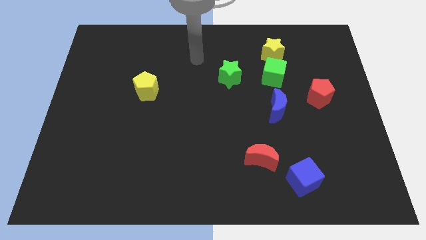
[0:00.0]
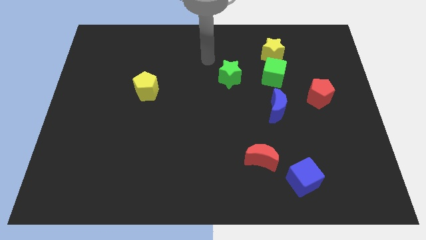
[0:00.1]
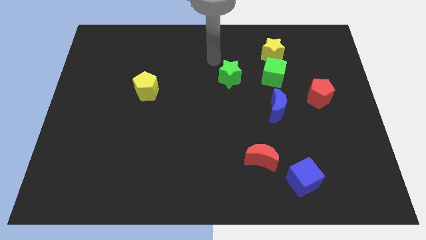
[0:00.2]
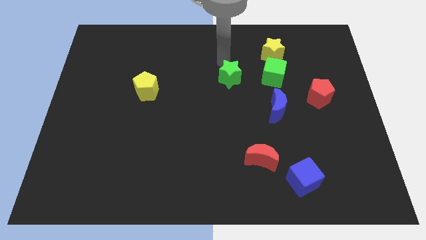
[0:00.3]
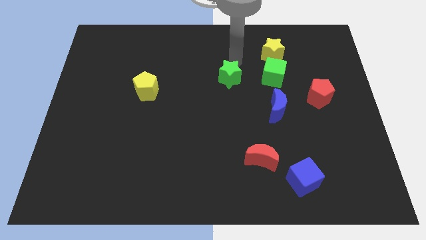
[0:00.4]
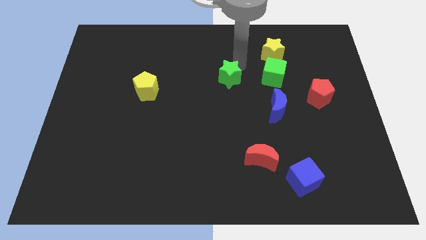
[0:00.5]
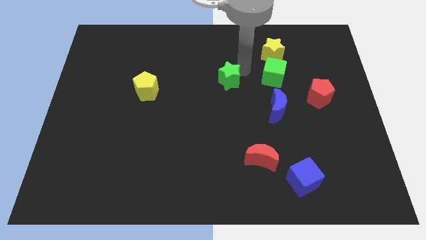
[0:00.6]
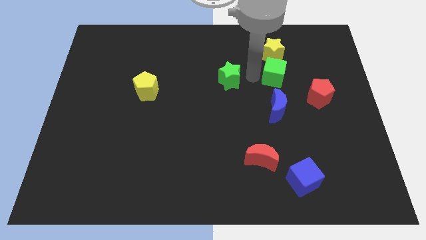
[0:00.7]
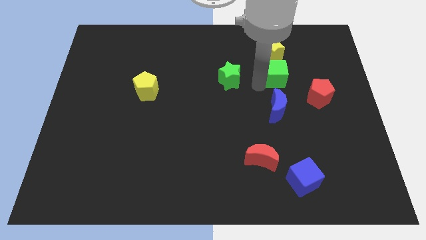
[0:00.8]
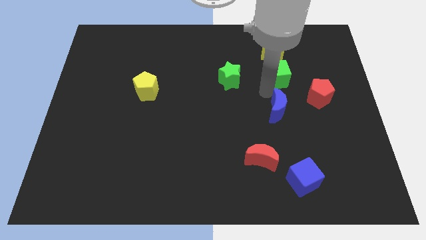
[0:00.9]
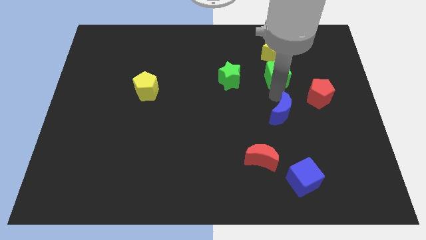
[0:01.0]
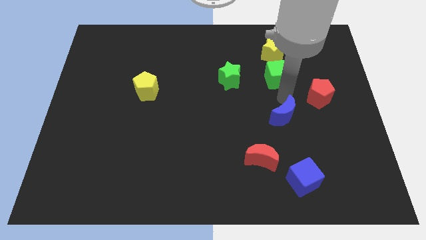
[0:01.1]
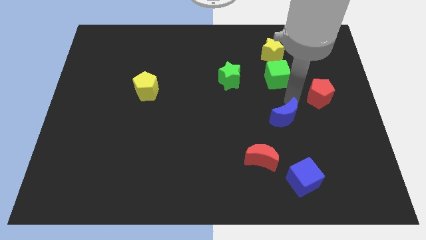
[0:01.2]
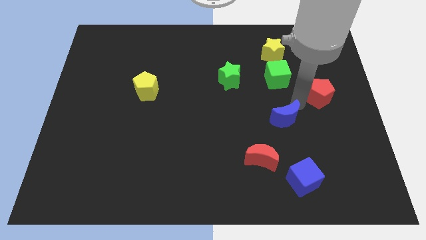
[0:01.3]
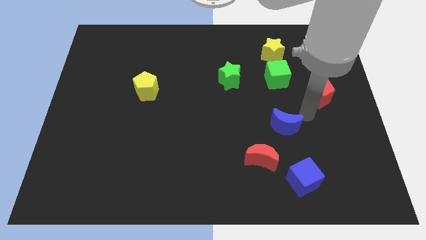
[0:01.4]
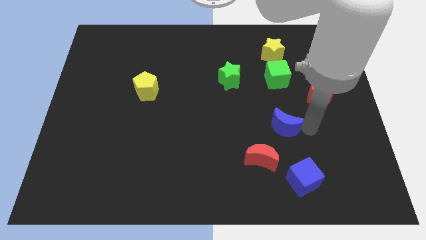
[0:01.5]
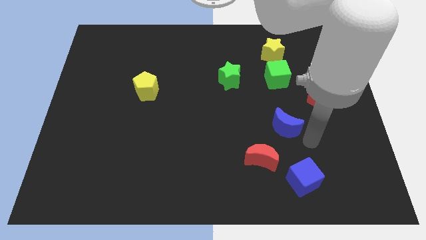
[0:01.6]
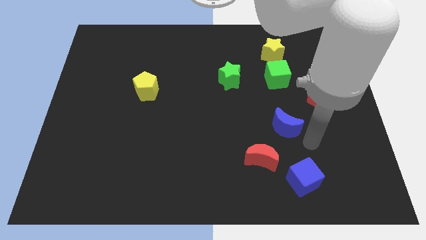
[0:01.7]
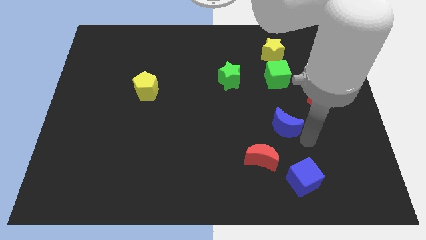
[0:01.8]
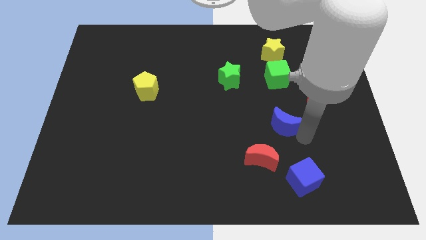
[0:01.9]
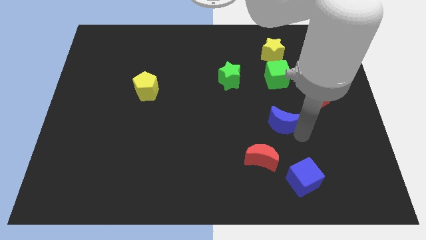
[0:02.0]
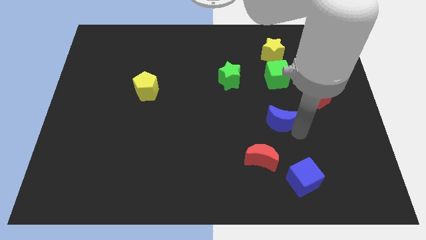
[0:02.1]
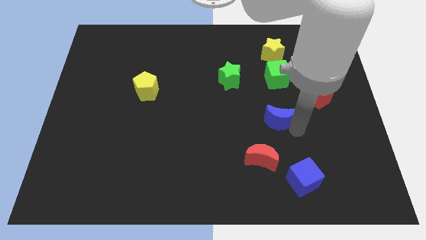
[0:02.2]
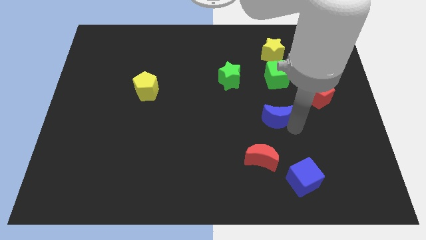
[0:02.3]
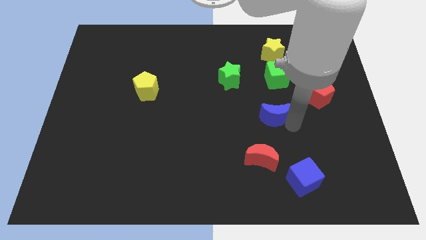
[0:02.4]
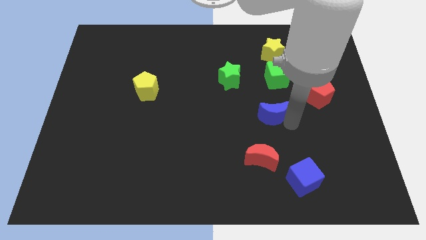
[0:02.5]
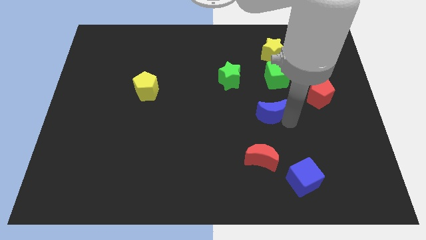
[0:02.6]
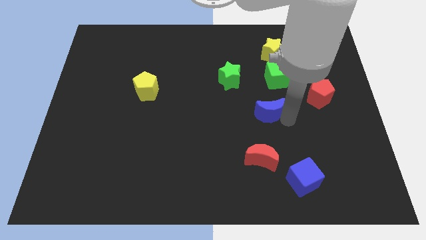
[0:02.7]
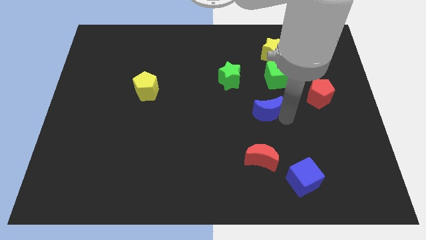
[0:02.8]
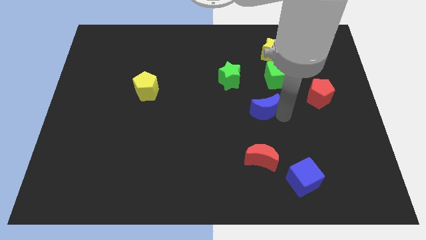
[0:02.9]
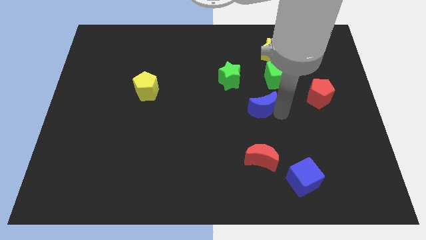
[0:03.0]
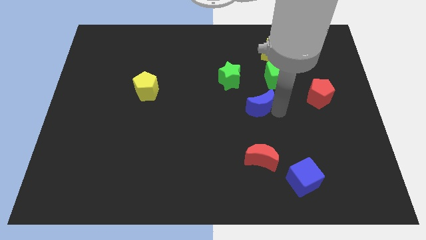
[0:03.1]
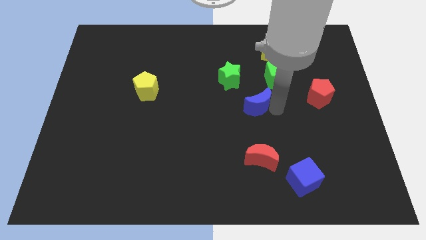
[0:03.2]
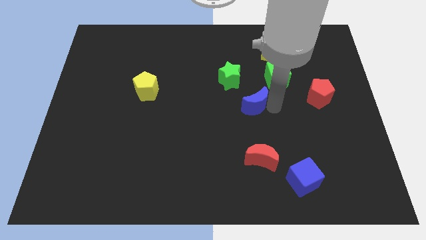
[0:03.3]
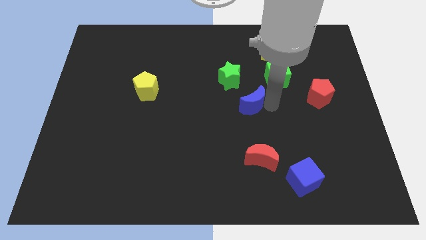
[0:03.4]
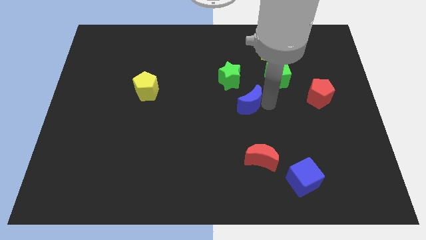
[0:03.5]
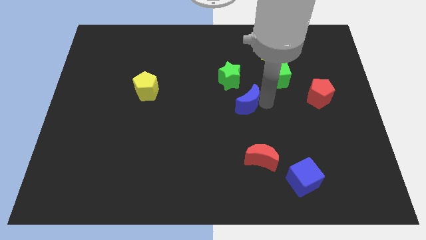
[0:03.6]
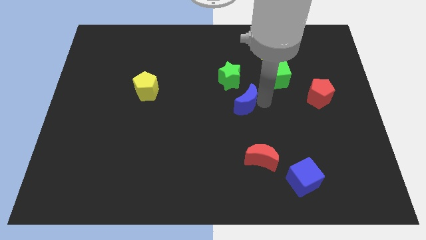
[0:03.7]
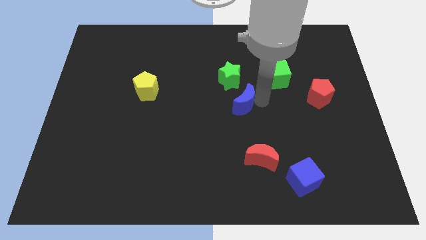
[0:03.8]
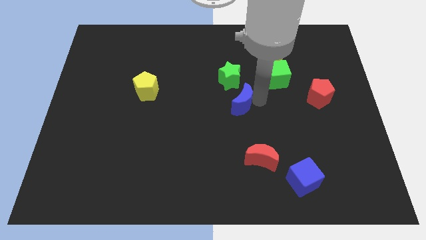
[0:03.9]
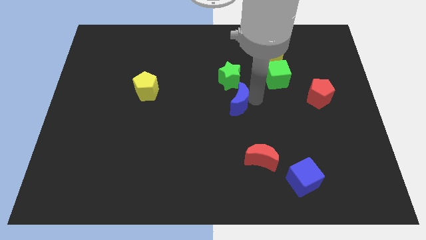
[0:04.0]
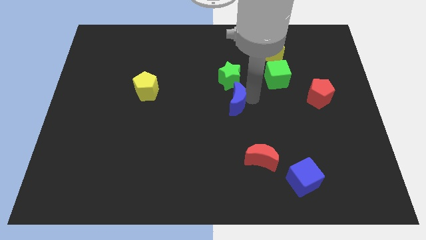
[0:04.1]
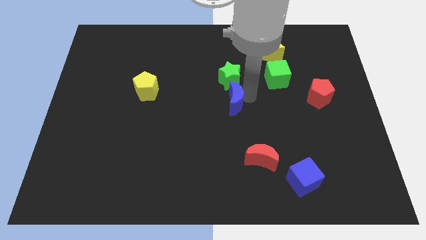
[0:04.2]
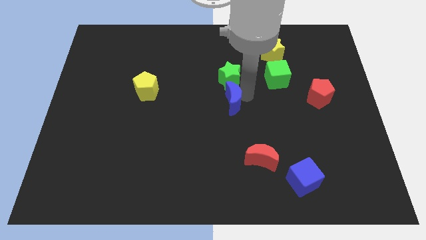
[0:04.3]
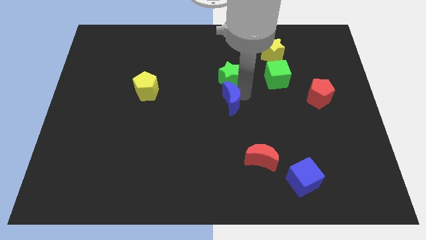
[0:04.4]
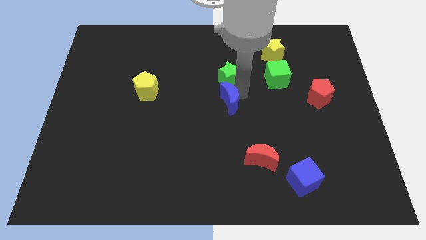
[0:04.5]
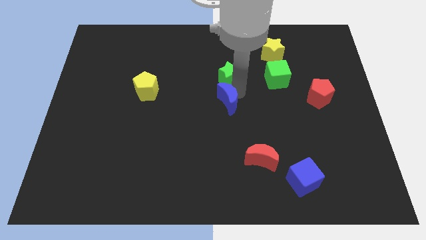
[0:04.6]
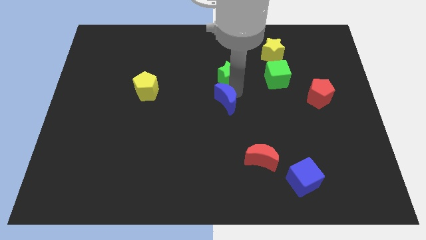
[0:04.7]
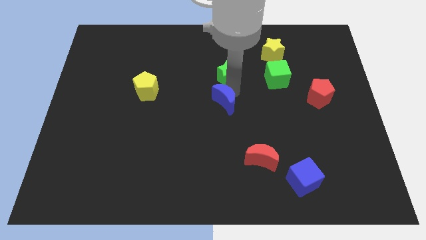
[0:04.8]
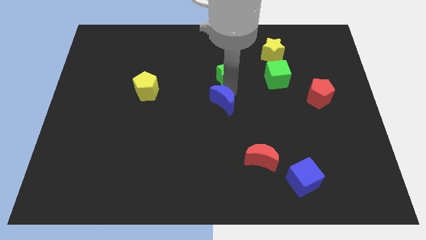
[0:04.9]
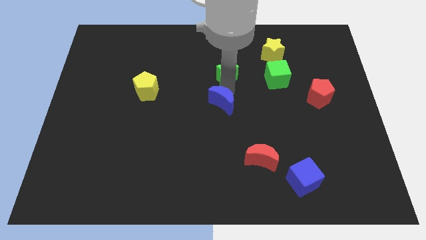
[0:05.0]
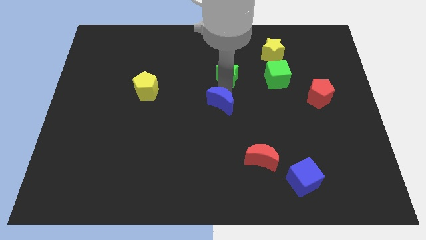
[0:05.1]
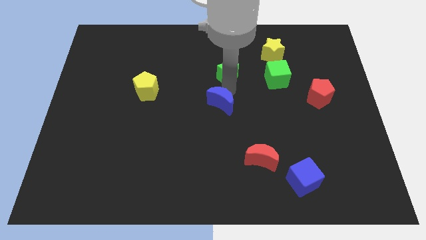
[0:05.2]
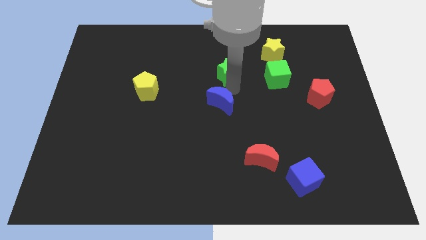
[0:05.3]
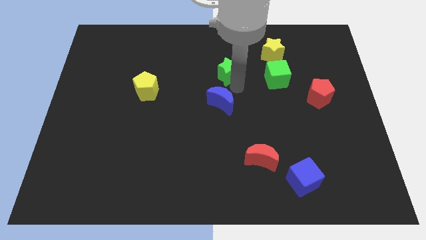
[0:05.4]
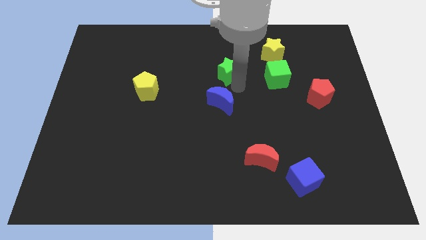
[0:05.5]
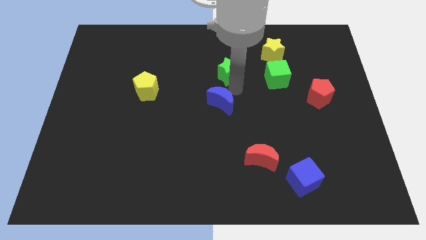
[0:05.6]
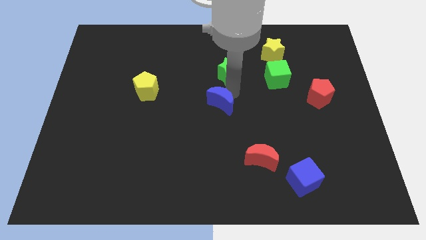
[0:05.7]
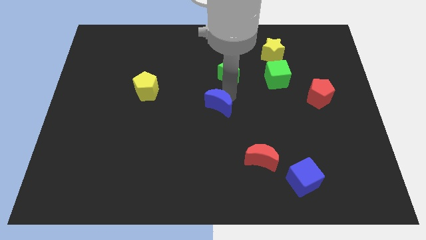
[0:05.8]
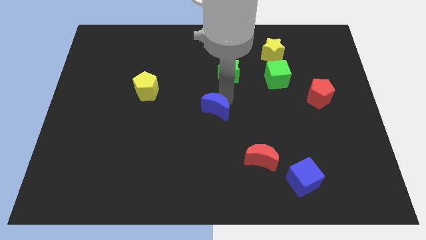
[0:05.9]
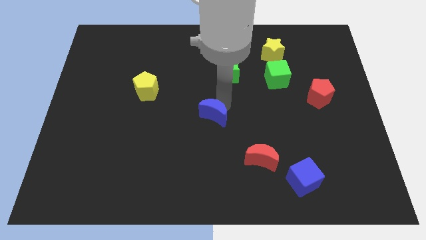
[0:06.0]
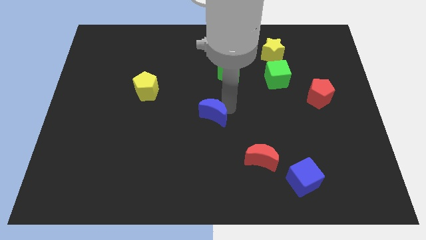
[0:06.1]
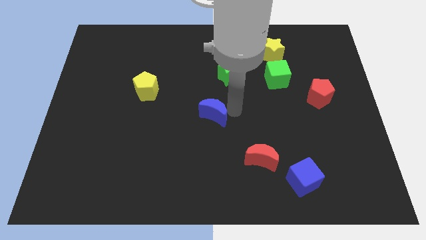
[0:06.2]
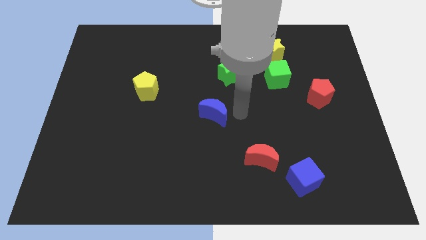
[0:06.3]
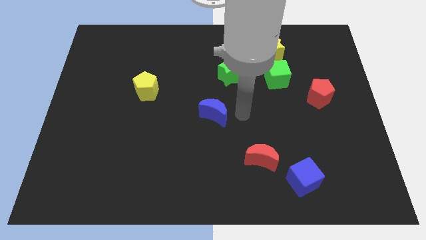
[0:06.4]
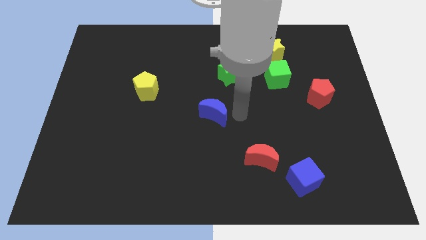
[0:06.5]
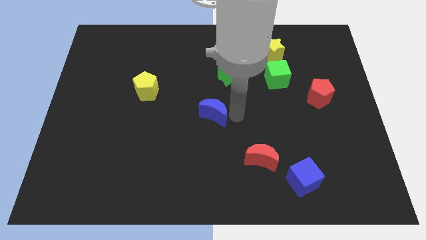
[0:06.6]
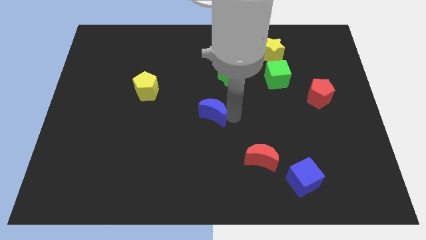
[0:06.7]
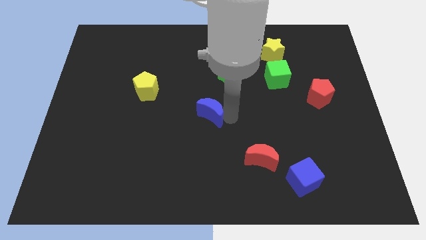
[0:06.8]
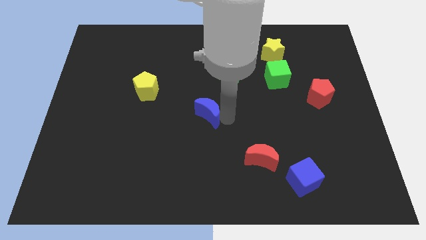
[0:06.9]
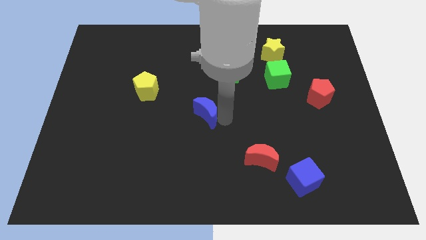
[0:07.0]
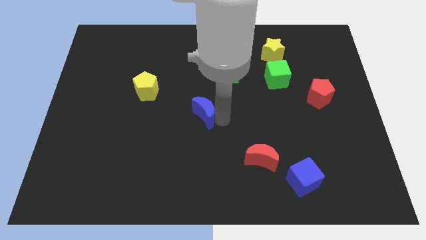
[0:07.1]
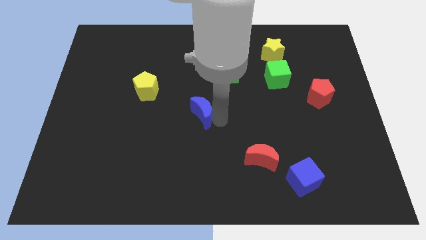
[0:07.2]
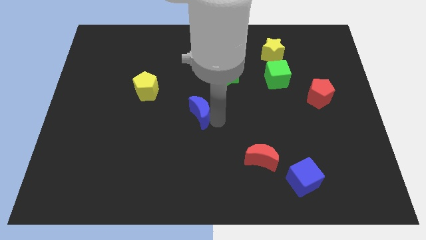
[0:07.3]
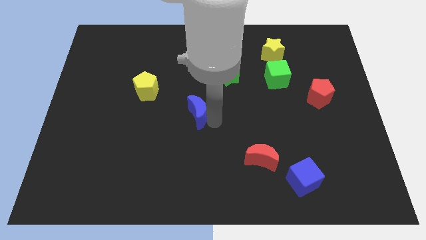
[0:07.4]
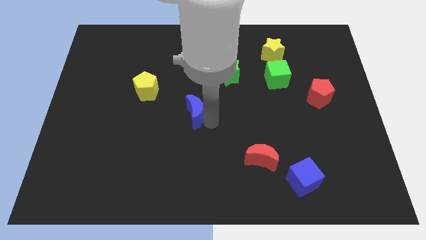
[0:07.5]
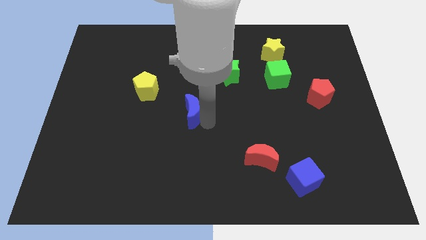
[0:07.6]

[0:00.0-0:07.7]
move the blue moon left

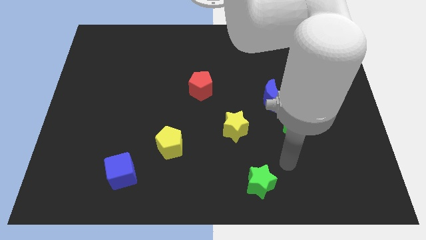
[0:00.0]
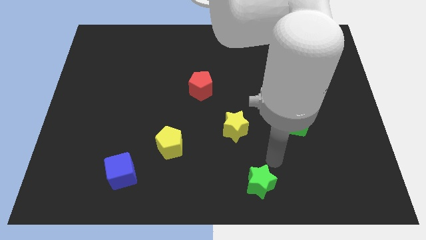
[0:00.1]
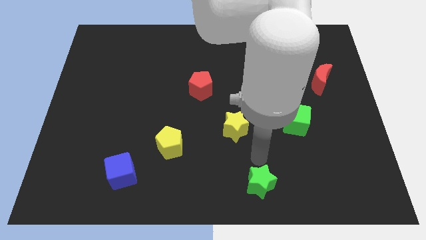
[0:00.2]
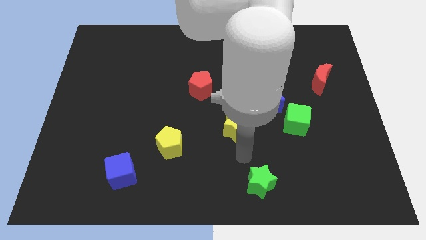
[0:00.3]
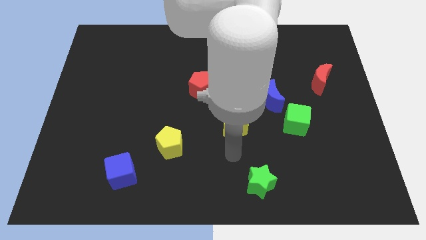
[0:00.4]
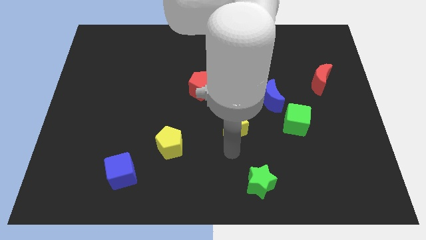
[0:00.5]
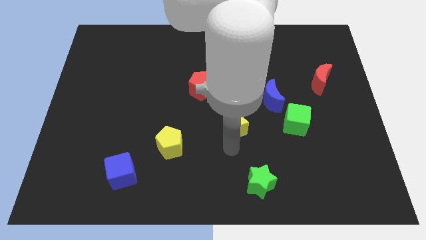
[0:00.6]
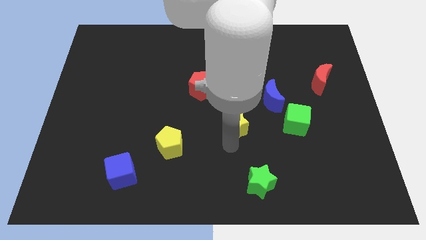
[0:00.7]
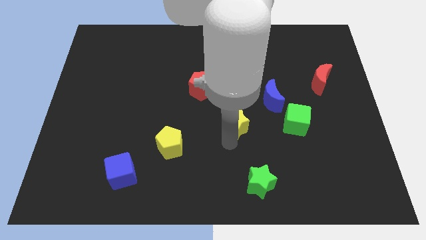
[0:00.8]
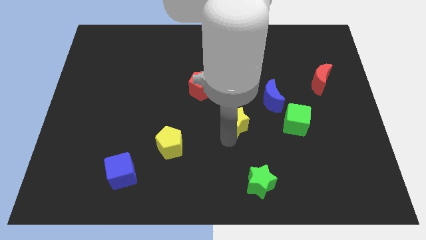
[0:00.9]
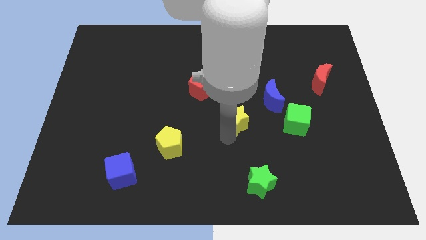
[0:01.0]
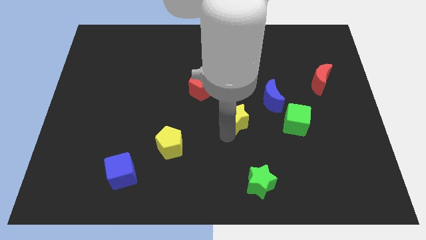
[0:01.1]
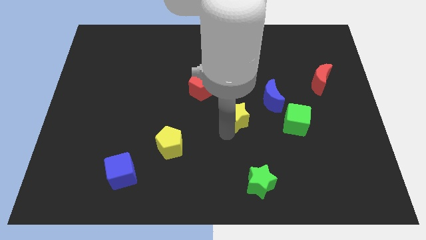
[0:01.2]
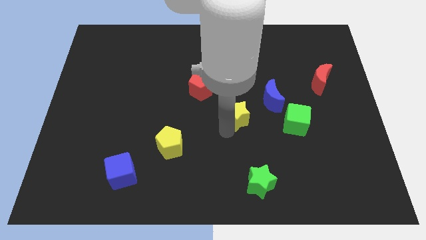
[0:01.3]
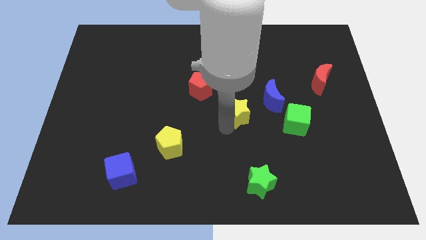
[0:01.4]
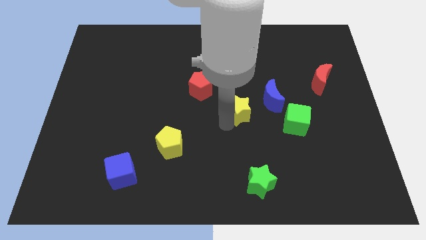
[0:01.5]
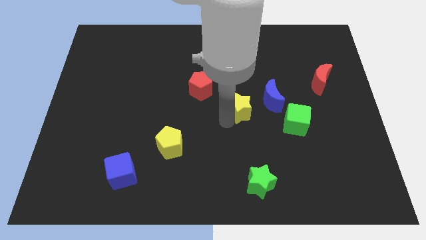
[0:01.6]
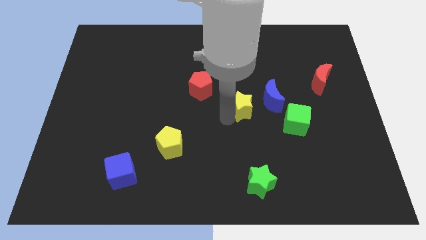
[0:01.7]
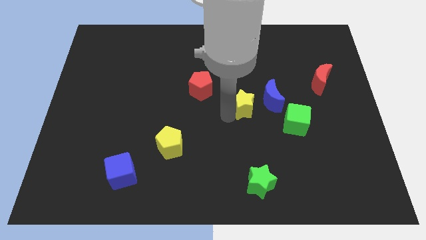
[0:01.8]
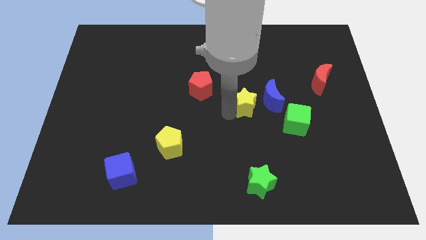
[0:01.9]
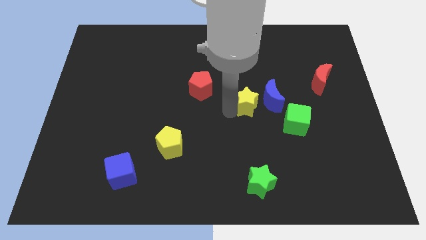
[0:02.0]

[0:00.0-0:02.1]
slide the yellow star upwards and then to the right somewhat
